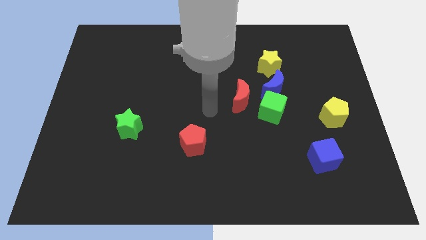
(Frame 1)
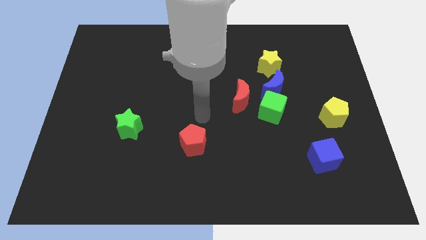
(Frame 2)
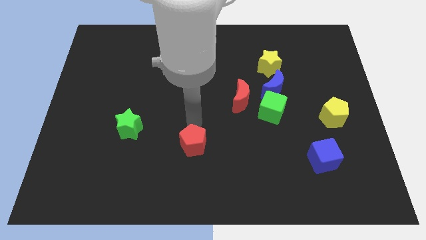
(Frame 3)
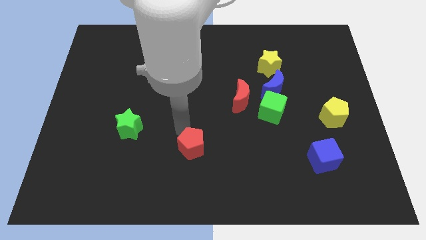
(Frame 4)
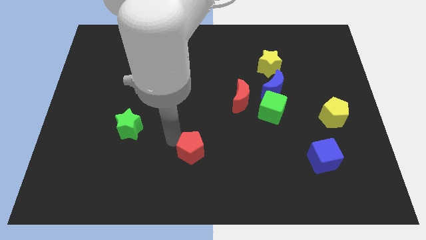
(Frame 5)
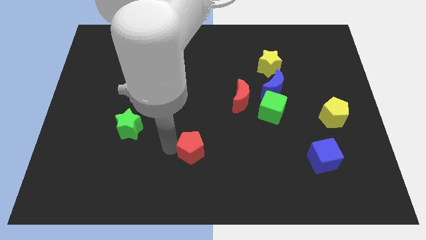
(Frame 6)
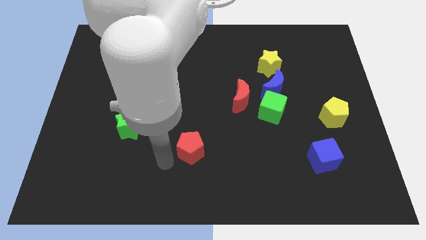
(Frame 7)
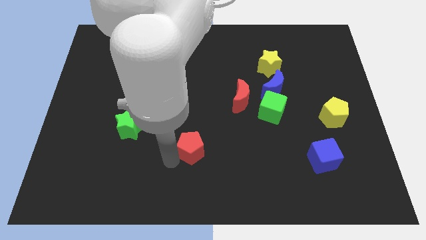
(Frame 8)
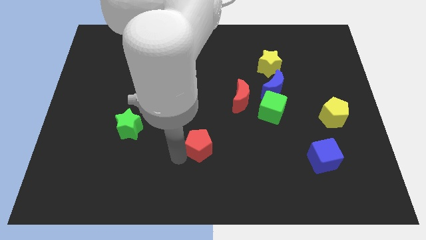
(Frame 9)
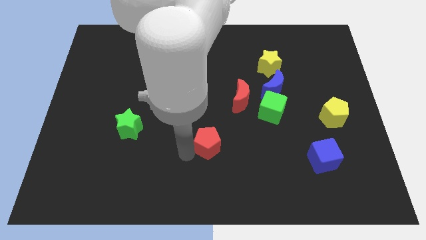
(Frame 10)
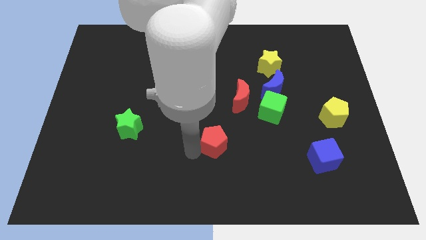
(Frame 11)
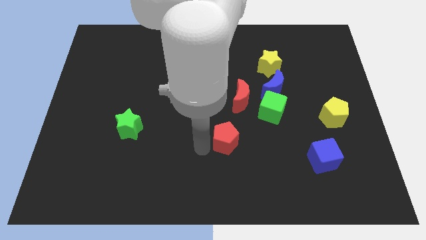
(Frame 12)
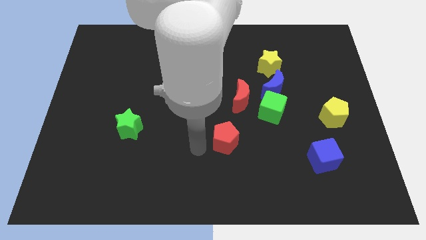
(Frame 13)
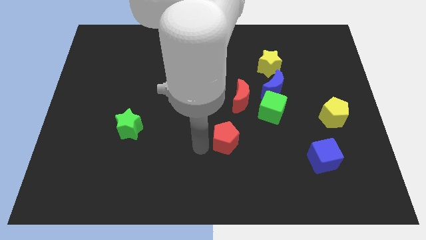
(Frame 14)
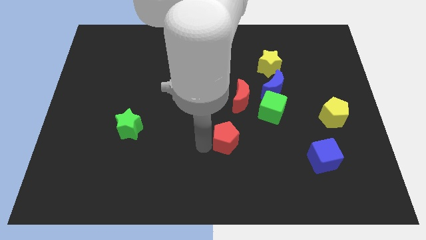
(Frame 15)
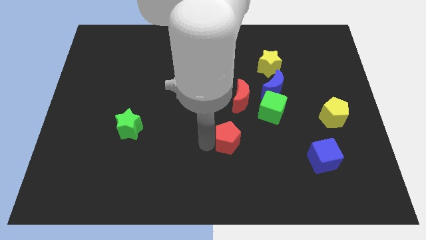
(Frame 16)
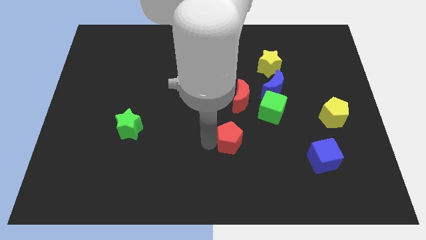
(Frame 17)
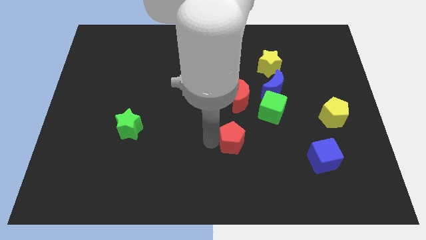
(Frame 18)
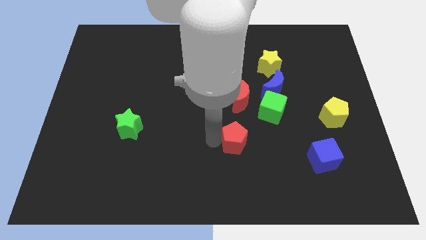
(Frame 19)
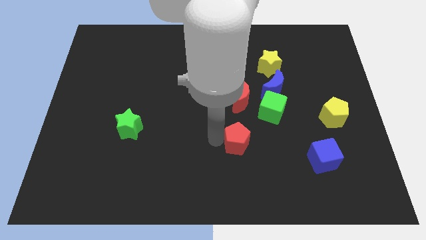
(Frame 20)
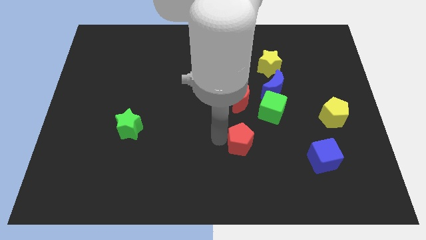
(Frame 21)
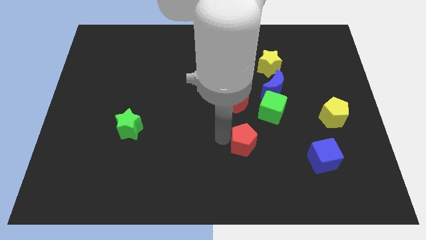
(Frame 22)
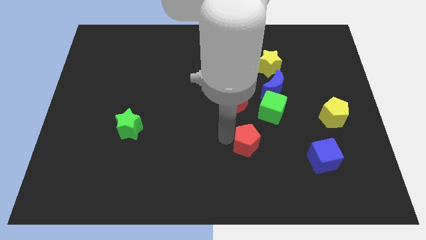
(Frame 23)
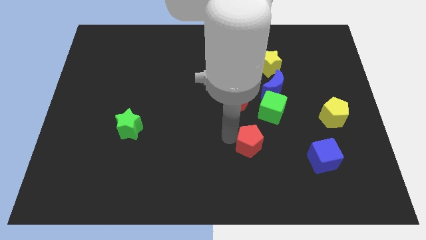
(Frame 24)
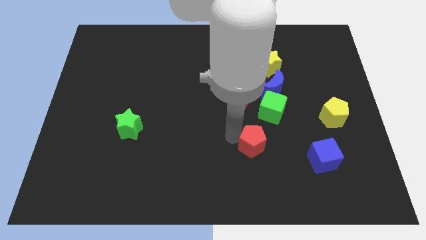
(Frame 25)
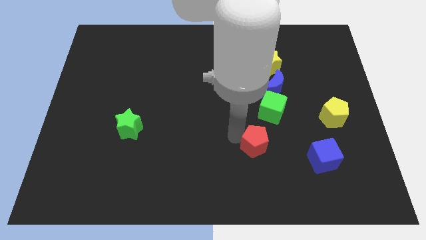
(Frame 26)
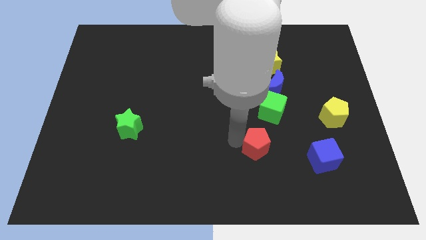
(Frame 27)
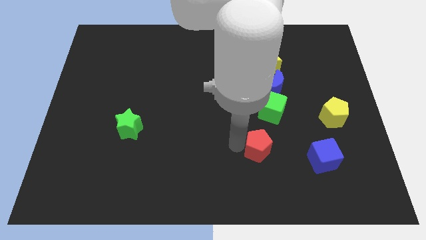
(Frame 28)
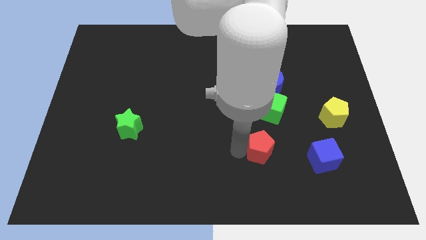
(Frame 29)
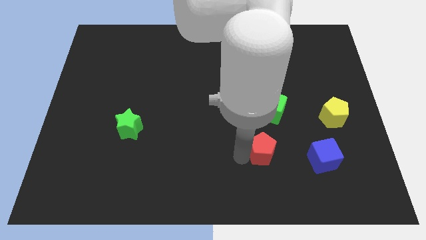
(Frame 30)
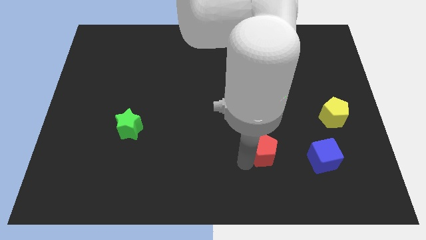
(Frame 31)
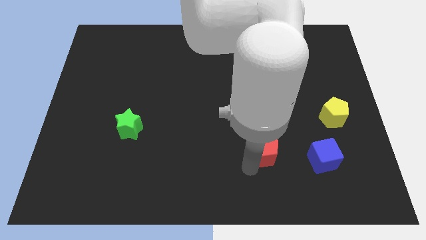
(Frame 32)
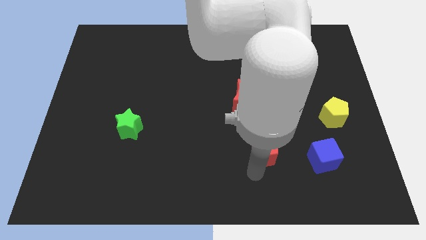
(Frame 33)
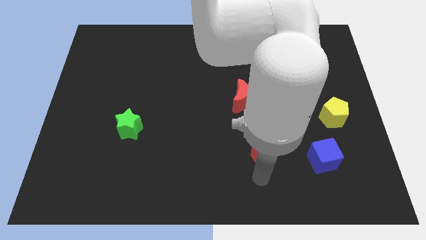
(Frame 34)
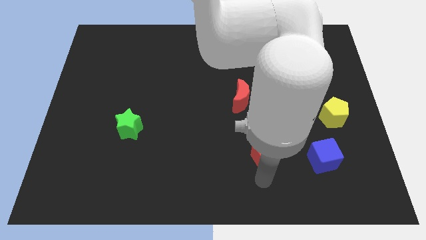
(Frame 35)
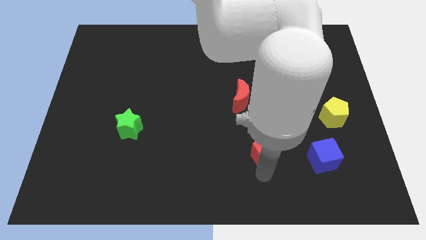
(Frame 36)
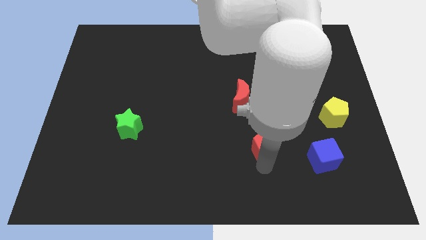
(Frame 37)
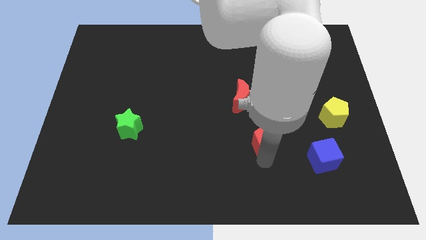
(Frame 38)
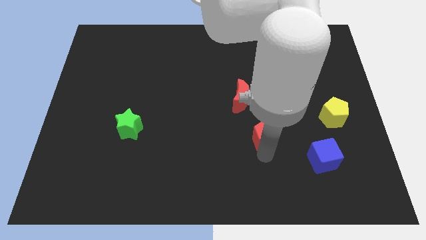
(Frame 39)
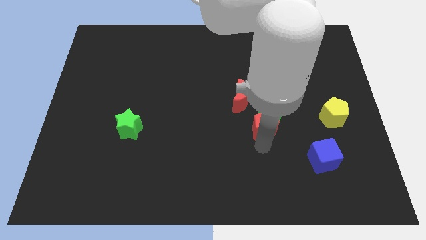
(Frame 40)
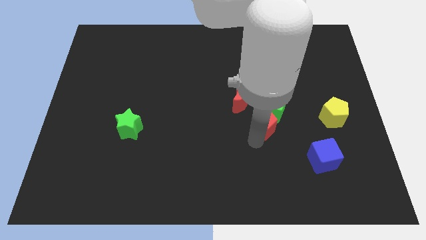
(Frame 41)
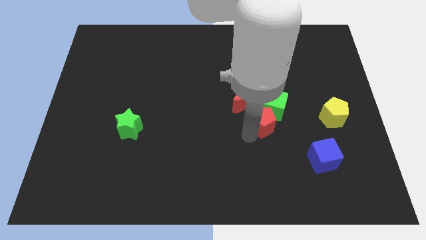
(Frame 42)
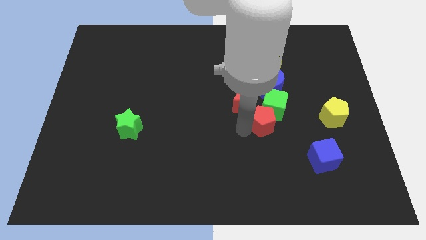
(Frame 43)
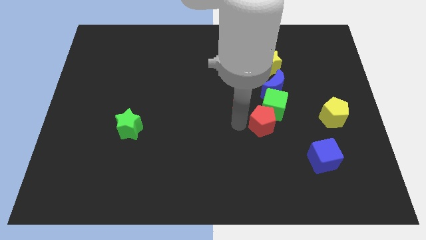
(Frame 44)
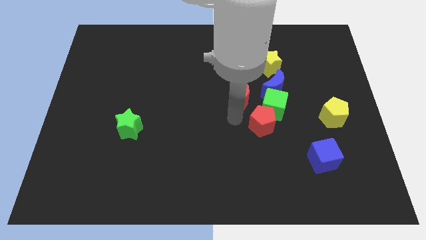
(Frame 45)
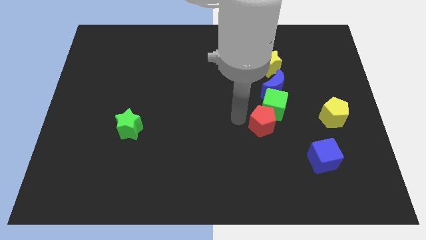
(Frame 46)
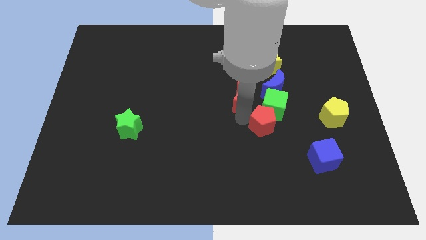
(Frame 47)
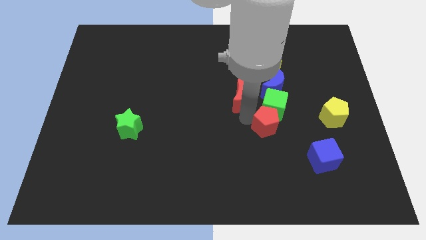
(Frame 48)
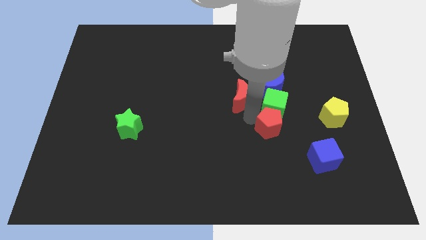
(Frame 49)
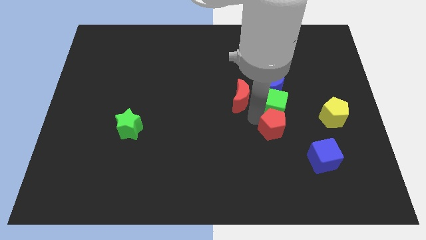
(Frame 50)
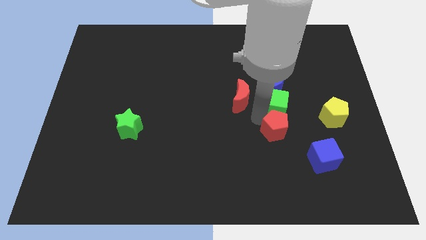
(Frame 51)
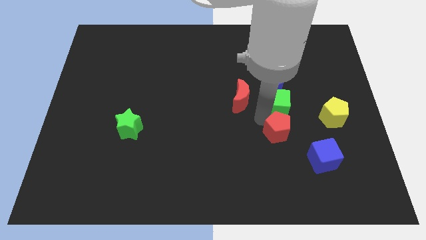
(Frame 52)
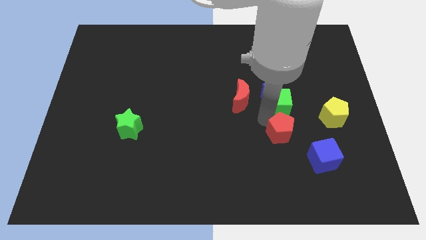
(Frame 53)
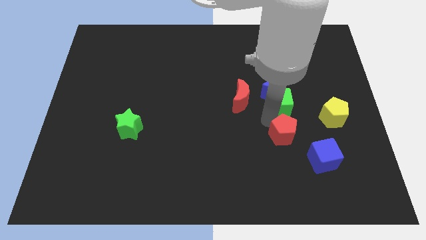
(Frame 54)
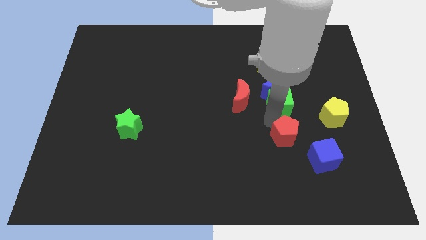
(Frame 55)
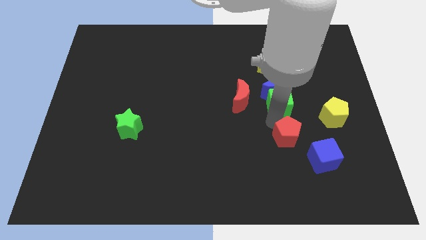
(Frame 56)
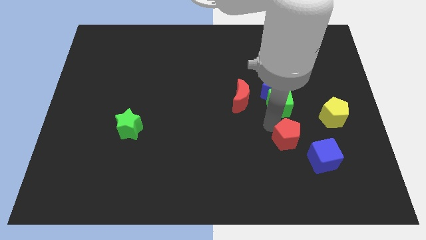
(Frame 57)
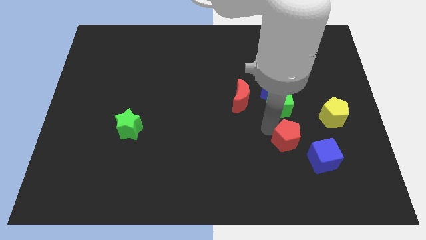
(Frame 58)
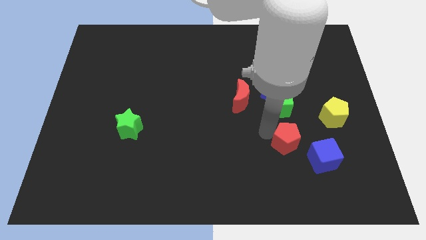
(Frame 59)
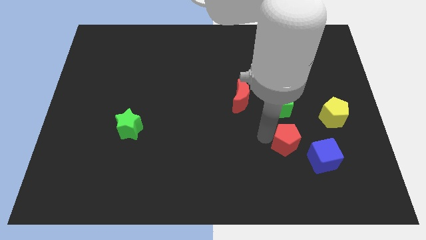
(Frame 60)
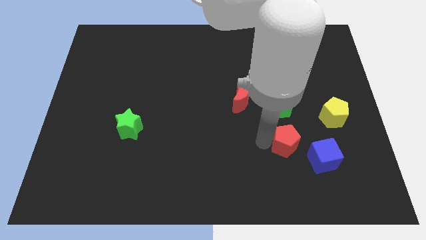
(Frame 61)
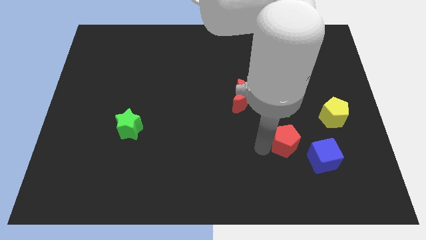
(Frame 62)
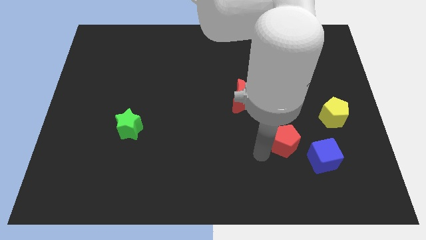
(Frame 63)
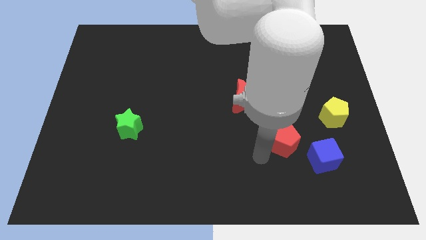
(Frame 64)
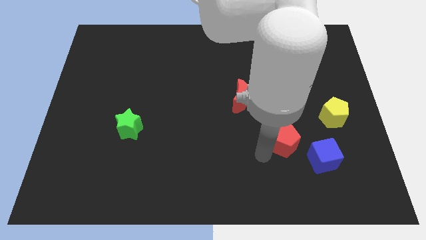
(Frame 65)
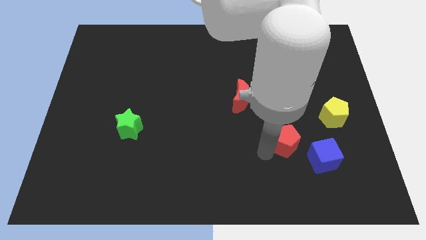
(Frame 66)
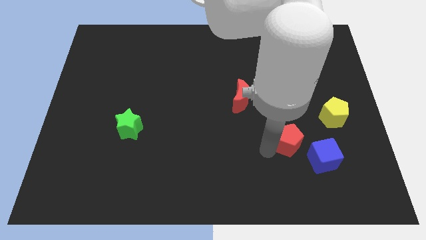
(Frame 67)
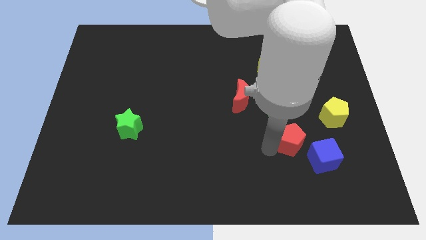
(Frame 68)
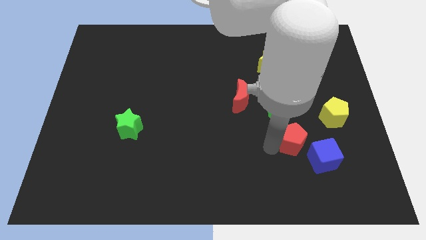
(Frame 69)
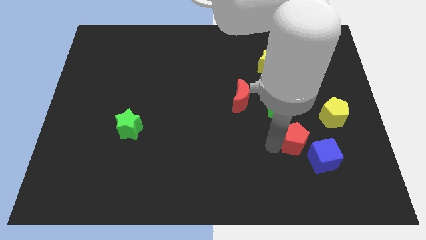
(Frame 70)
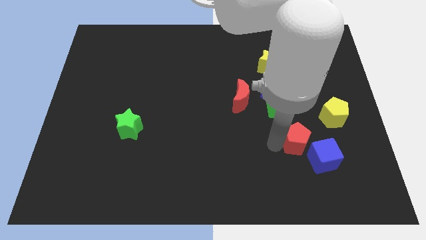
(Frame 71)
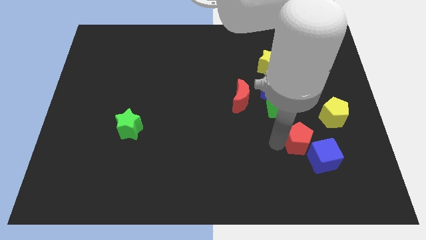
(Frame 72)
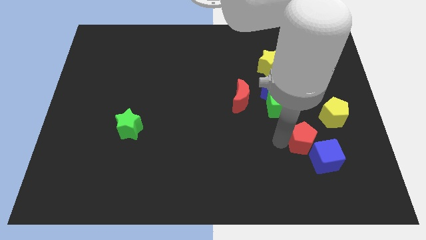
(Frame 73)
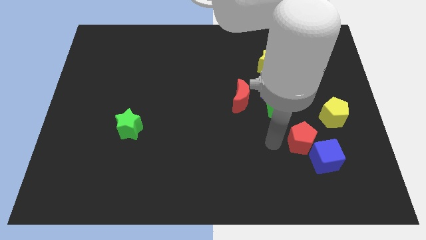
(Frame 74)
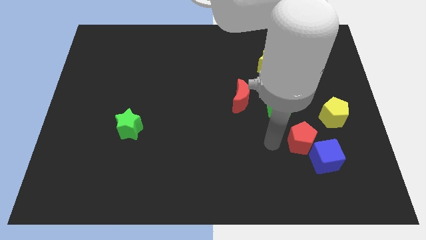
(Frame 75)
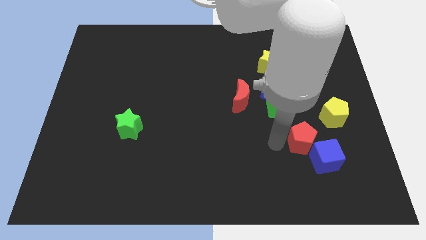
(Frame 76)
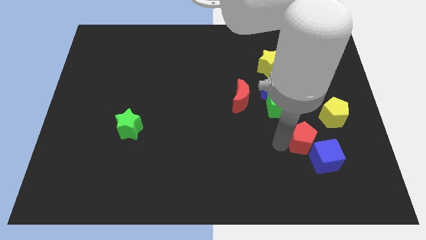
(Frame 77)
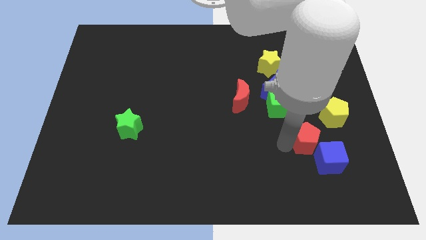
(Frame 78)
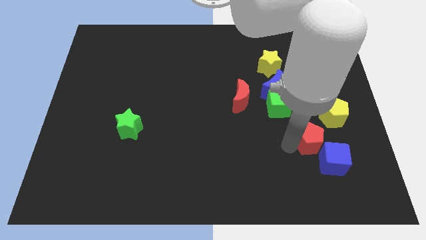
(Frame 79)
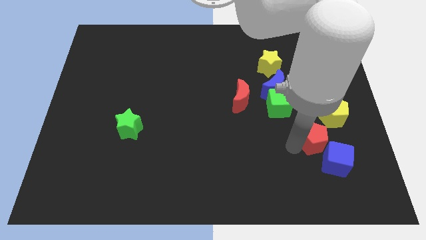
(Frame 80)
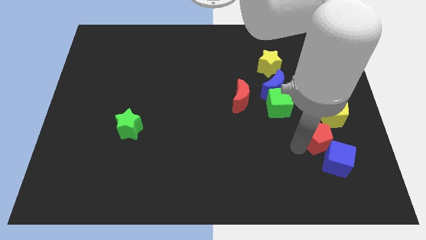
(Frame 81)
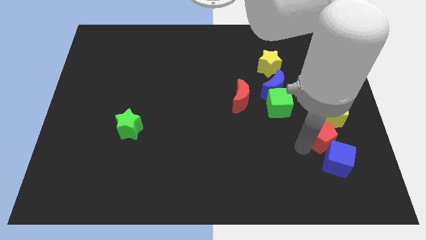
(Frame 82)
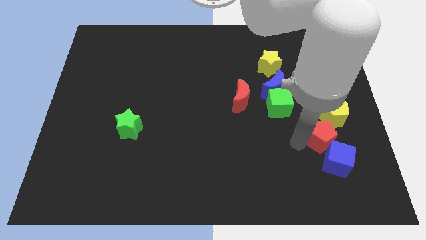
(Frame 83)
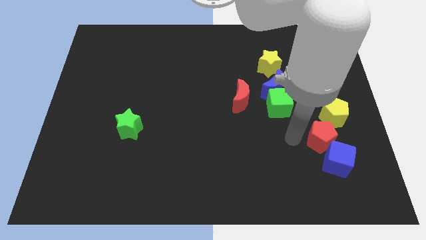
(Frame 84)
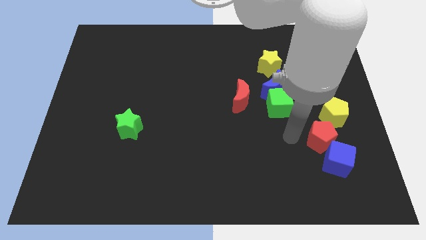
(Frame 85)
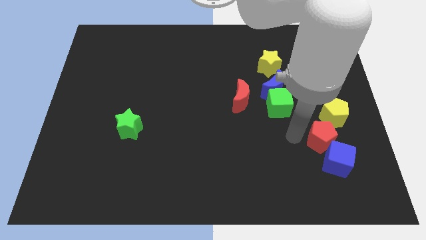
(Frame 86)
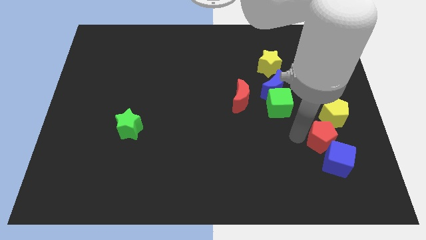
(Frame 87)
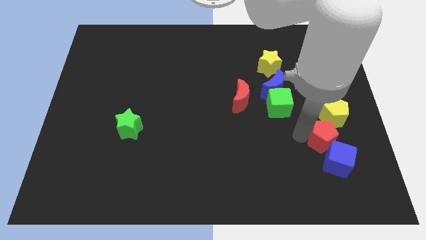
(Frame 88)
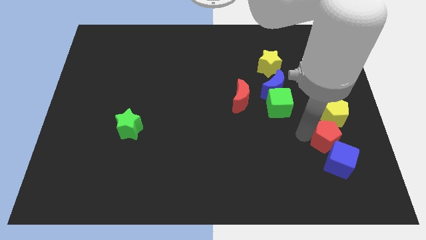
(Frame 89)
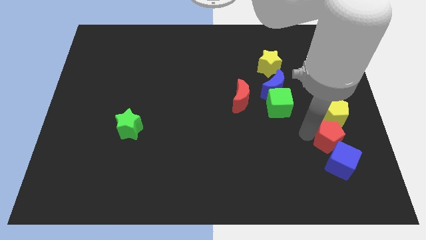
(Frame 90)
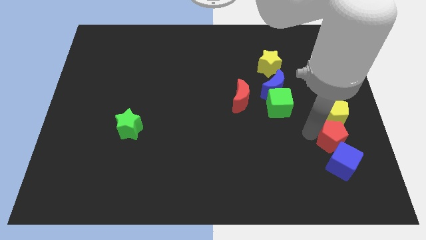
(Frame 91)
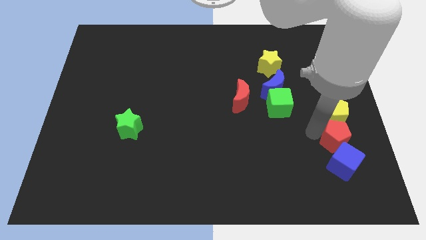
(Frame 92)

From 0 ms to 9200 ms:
move the red pentagon diagonally up and to the right of the blue cube
